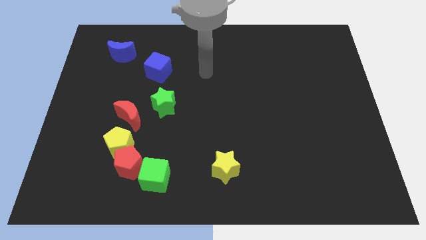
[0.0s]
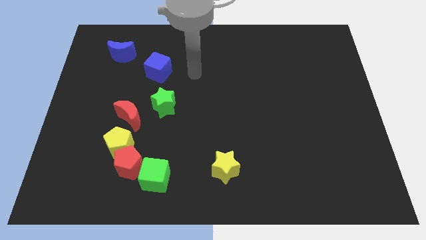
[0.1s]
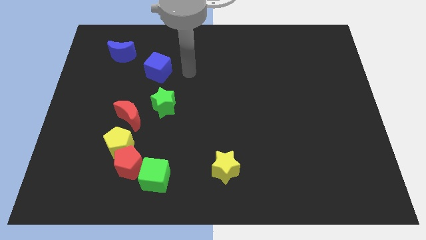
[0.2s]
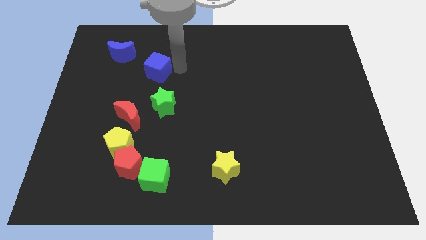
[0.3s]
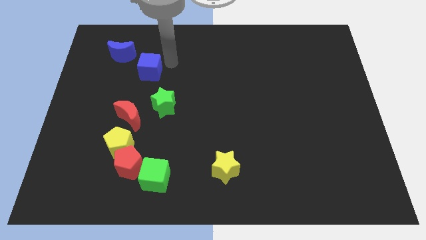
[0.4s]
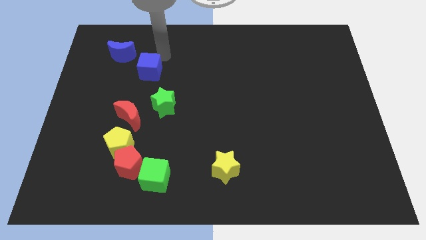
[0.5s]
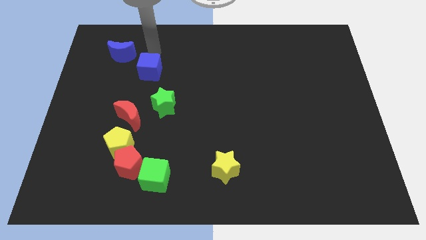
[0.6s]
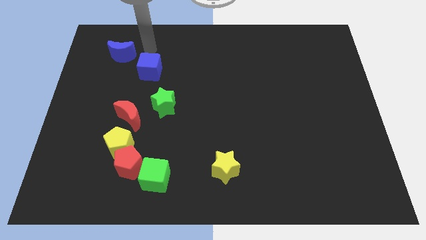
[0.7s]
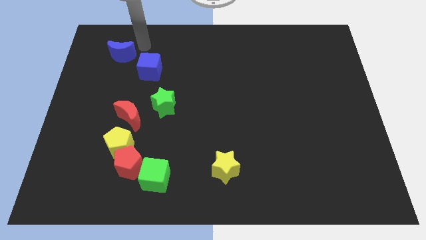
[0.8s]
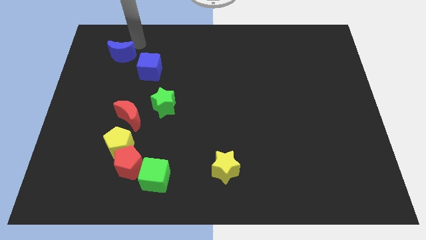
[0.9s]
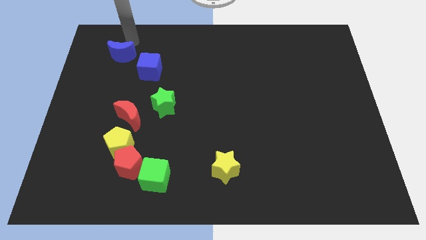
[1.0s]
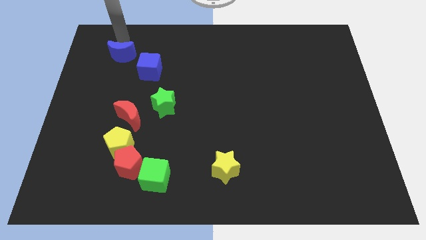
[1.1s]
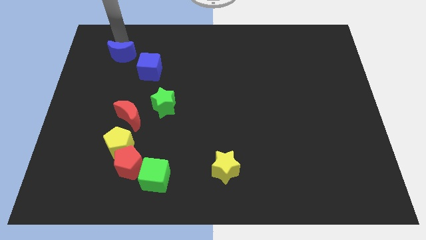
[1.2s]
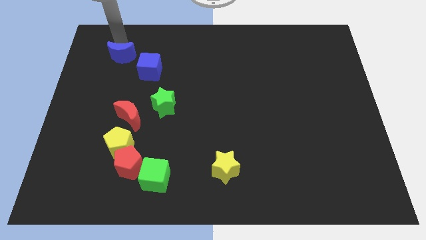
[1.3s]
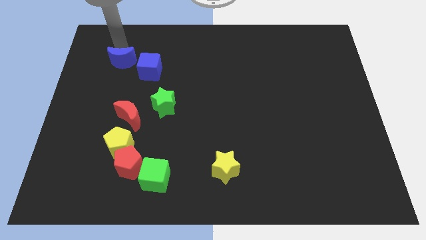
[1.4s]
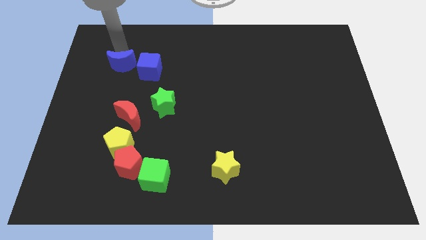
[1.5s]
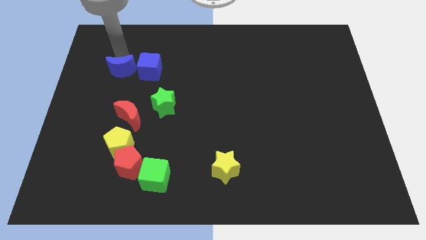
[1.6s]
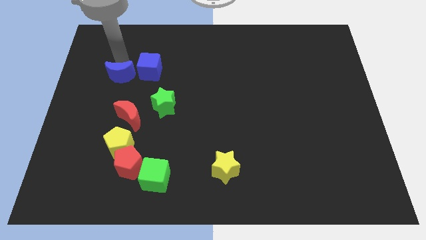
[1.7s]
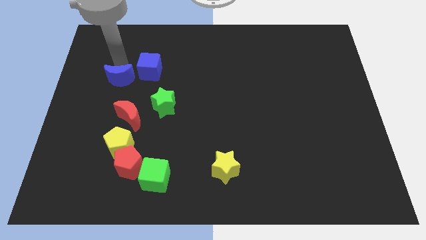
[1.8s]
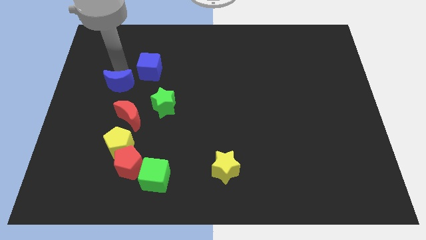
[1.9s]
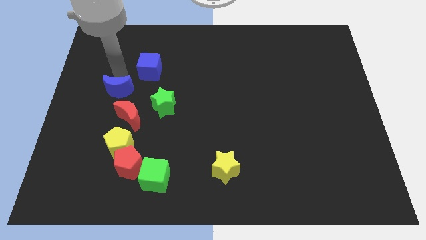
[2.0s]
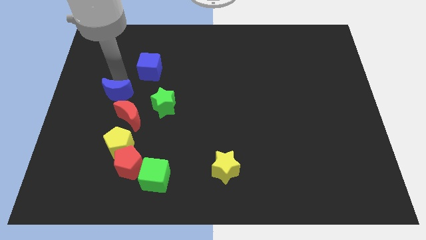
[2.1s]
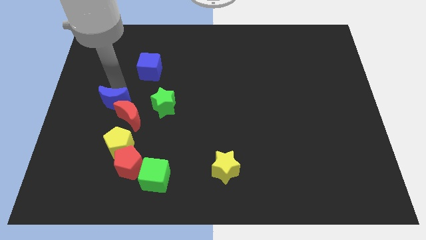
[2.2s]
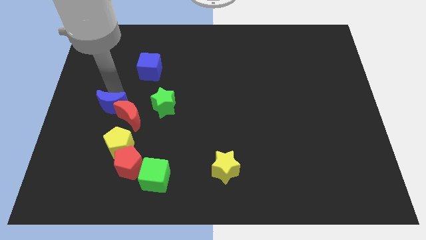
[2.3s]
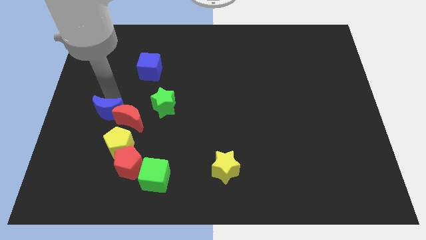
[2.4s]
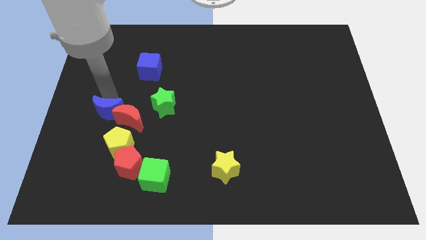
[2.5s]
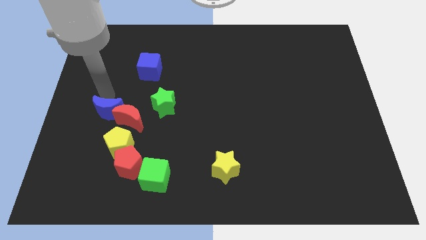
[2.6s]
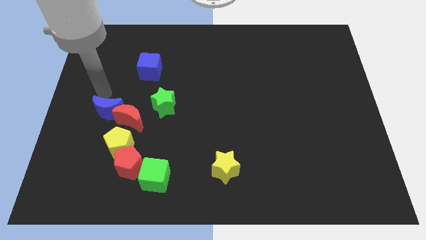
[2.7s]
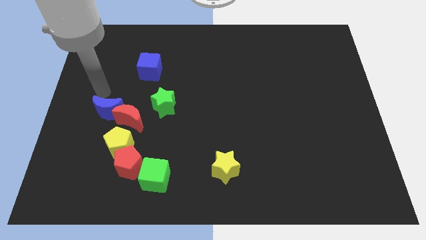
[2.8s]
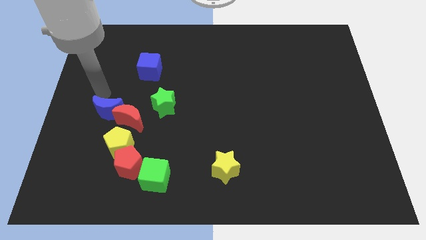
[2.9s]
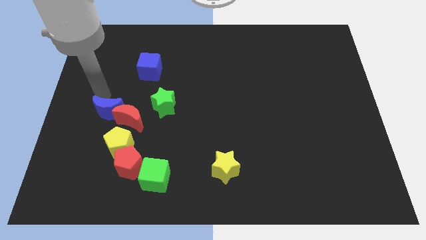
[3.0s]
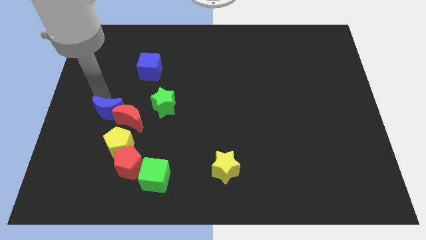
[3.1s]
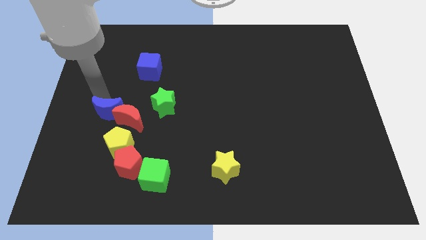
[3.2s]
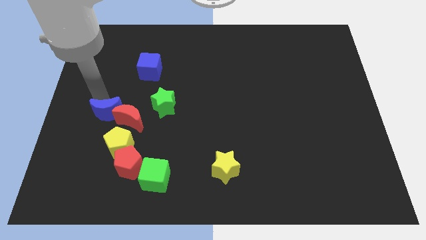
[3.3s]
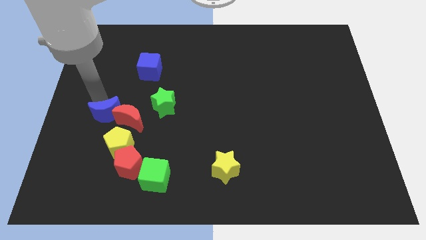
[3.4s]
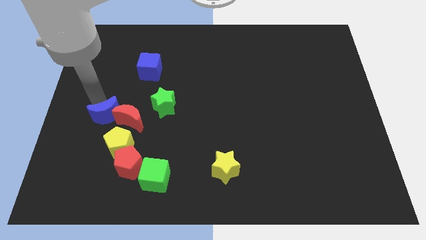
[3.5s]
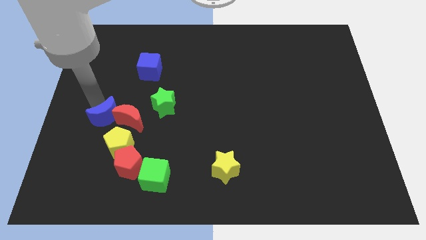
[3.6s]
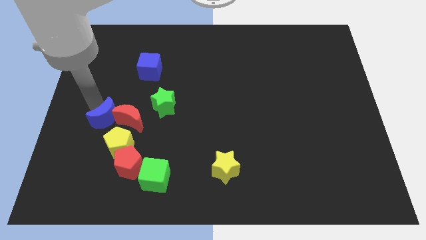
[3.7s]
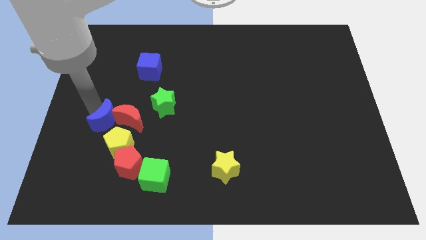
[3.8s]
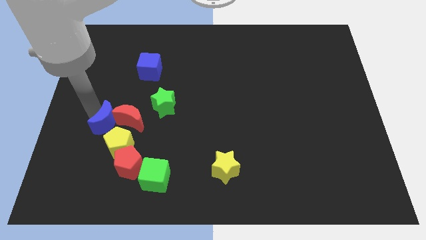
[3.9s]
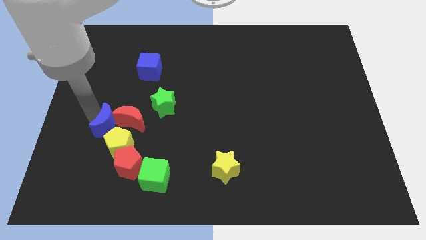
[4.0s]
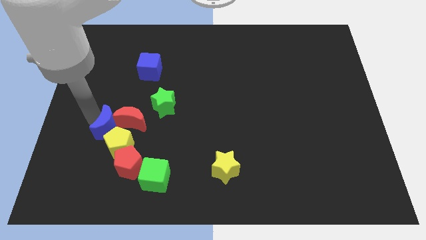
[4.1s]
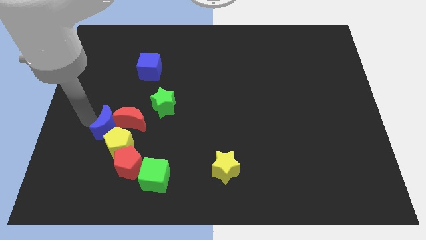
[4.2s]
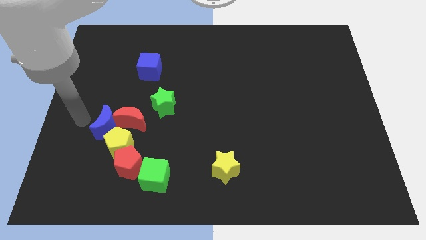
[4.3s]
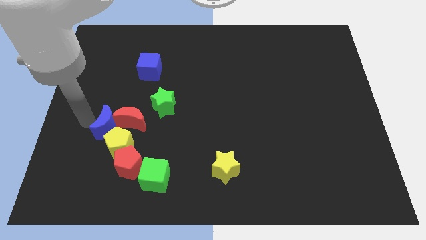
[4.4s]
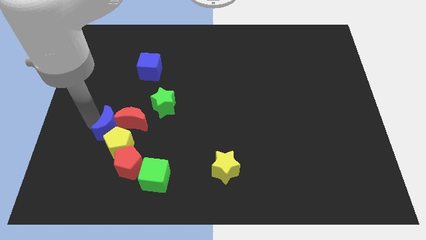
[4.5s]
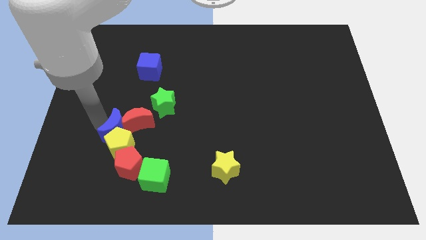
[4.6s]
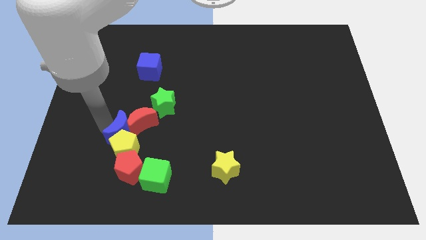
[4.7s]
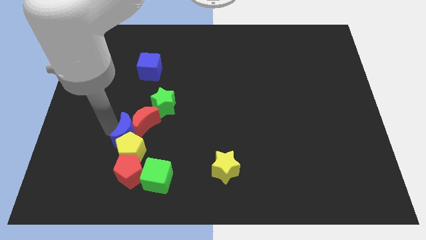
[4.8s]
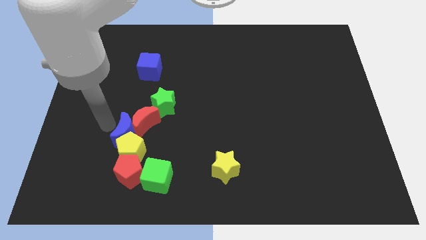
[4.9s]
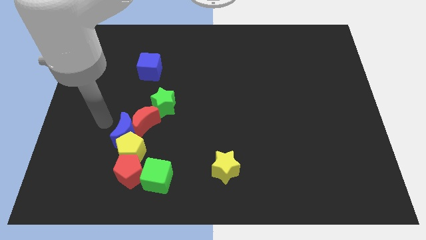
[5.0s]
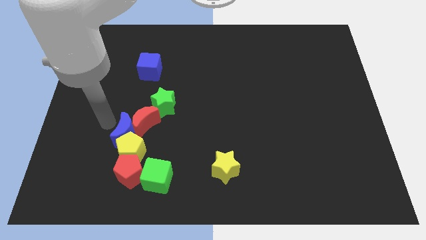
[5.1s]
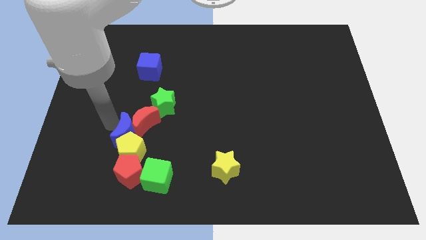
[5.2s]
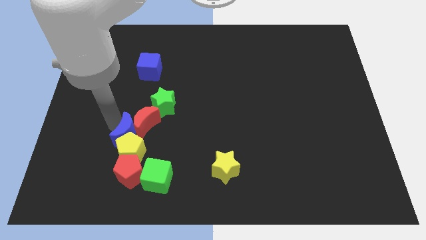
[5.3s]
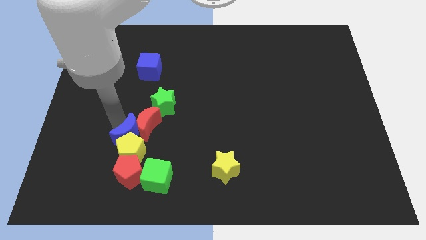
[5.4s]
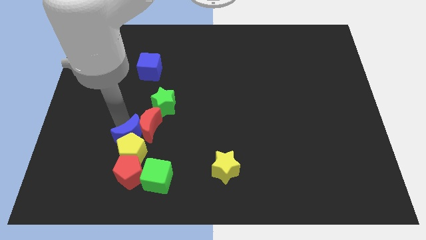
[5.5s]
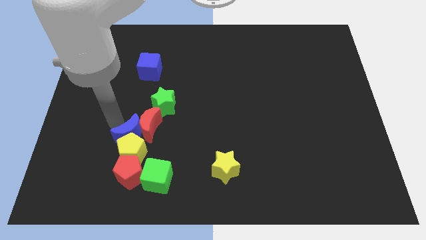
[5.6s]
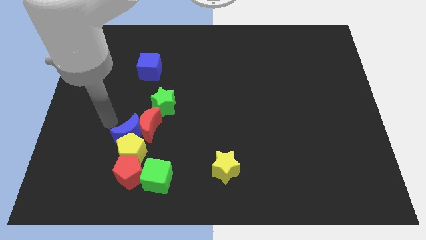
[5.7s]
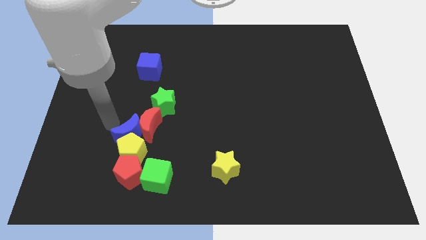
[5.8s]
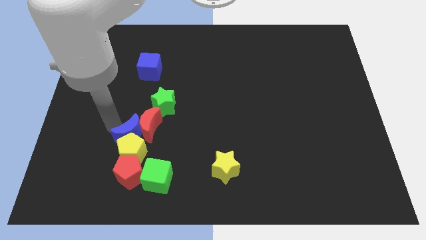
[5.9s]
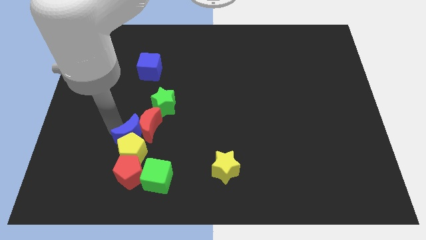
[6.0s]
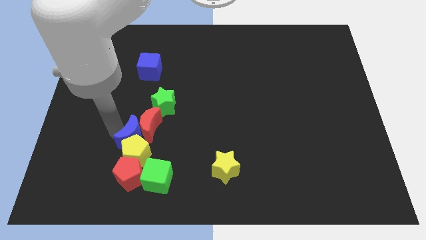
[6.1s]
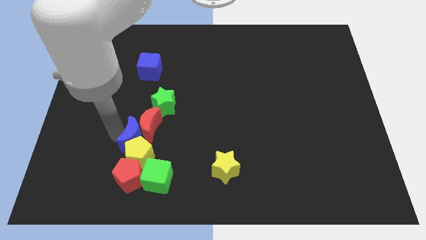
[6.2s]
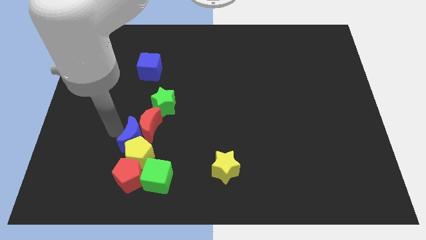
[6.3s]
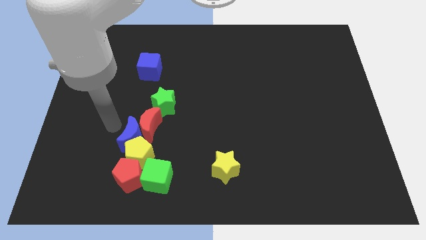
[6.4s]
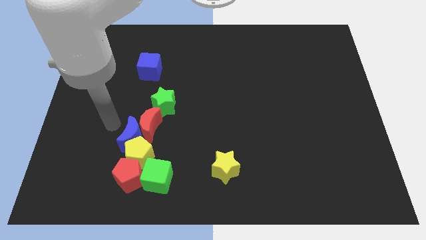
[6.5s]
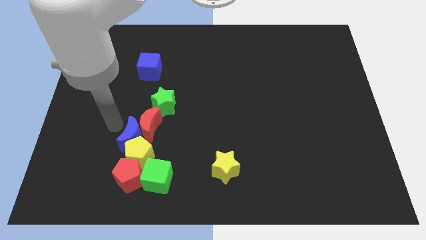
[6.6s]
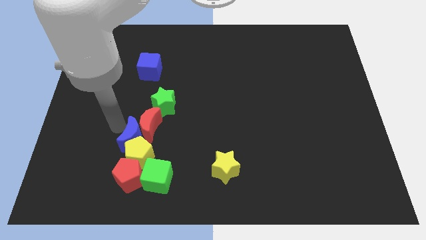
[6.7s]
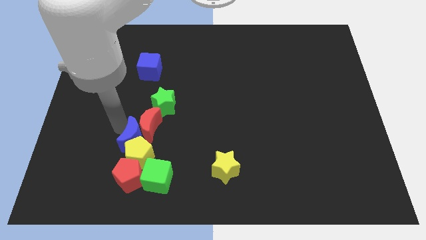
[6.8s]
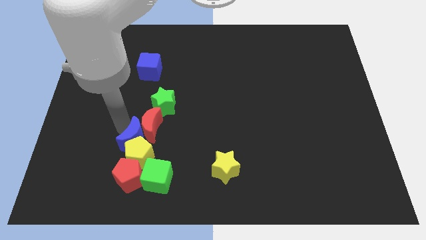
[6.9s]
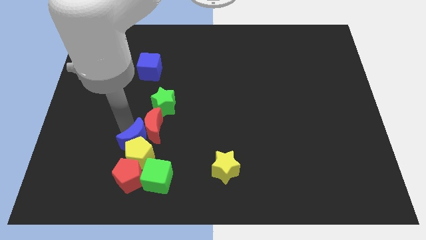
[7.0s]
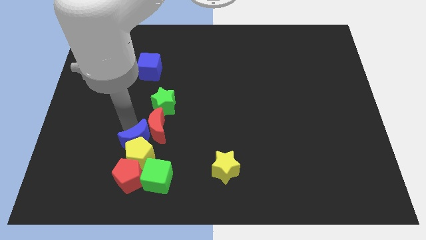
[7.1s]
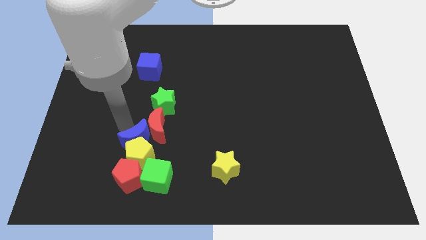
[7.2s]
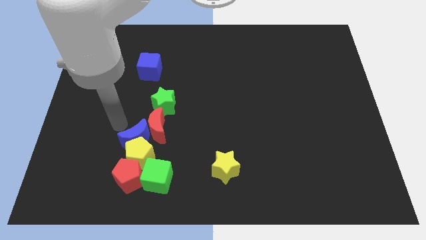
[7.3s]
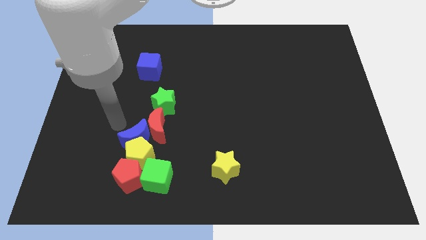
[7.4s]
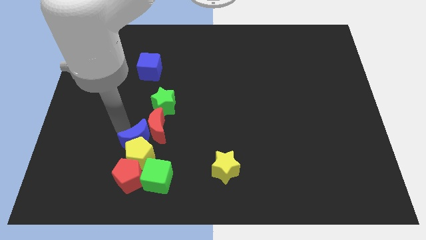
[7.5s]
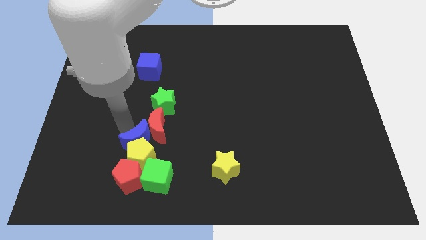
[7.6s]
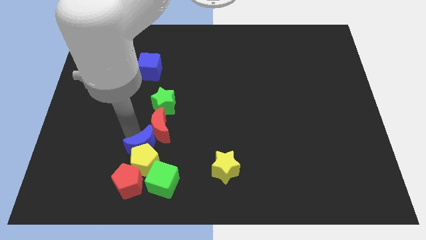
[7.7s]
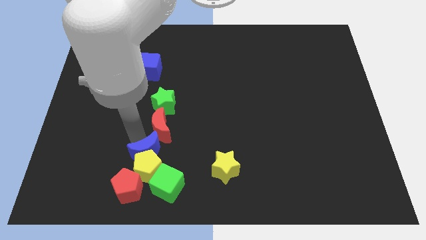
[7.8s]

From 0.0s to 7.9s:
push the blue moon to the top right of the red pentagon
